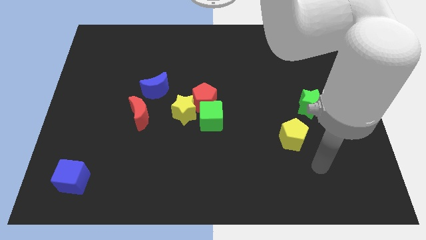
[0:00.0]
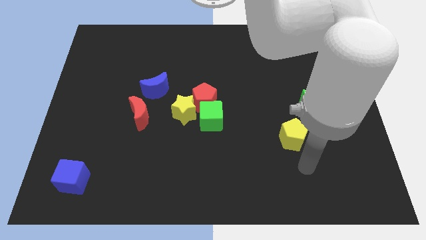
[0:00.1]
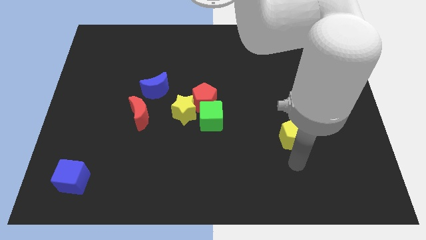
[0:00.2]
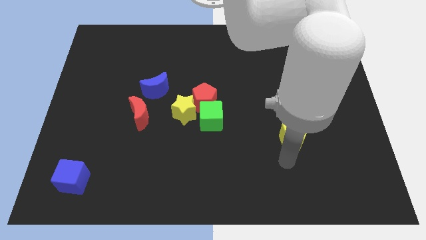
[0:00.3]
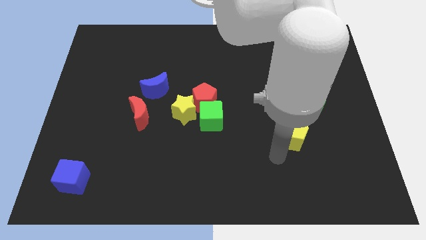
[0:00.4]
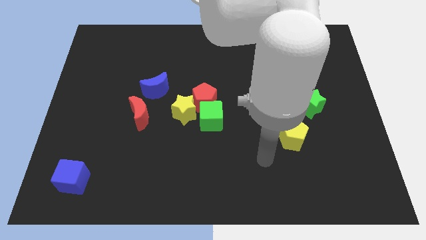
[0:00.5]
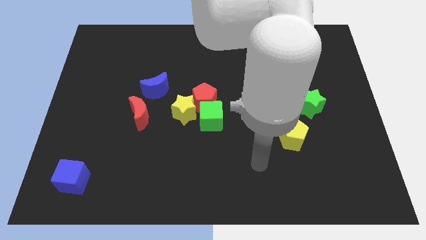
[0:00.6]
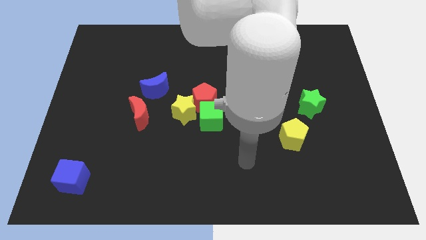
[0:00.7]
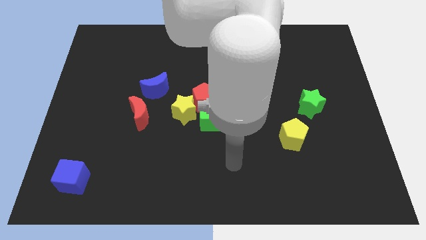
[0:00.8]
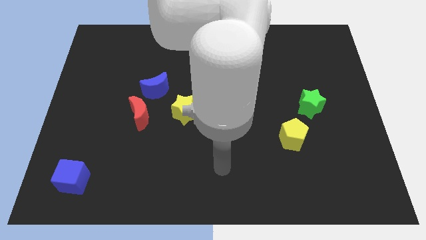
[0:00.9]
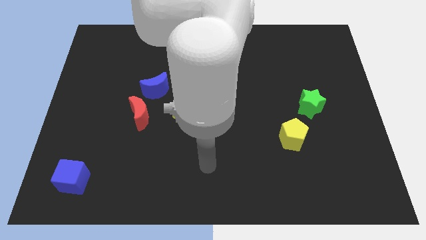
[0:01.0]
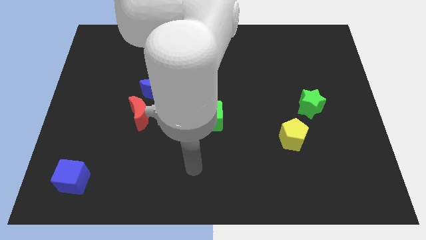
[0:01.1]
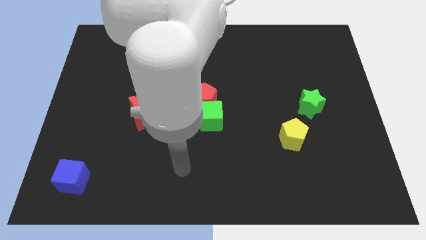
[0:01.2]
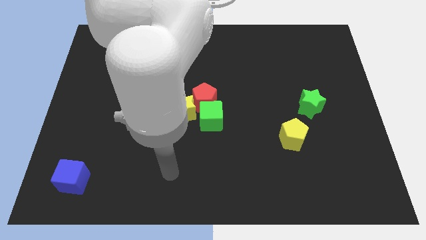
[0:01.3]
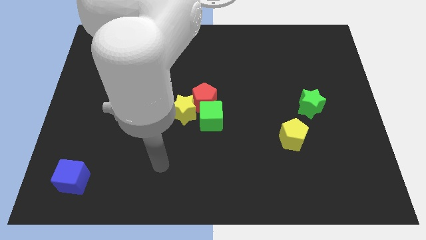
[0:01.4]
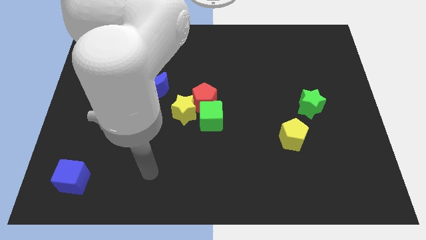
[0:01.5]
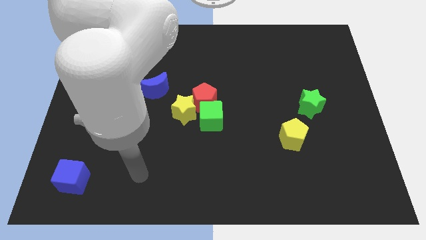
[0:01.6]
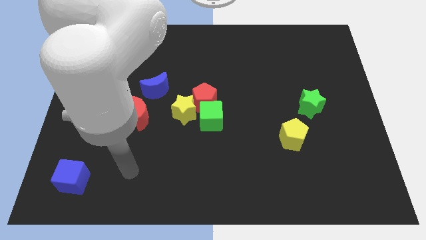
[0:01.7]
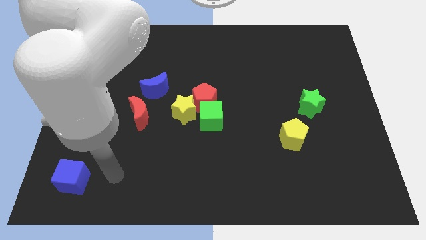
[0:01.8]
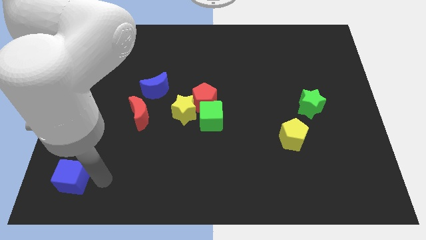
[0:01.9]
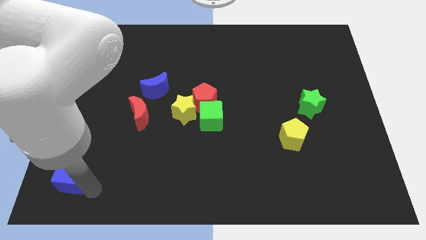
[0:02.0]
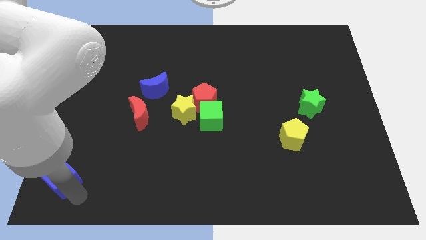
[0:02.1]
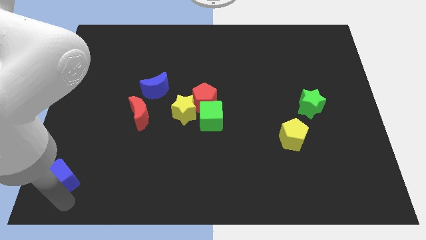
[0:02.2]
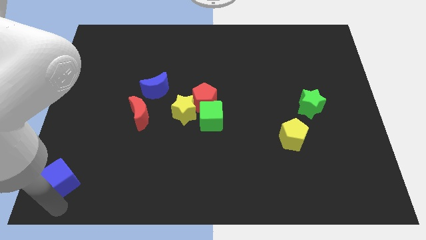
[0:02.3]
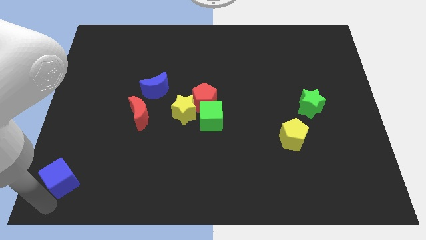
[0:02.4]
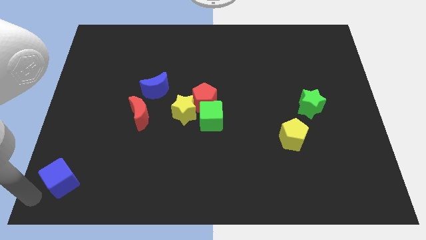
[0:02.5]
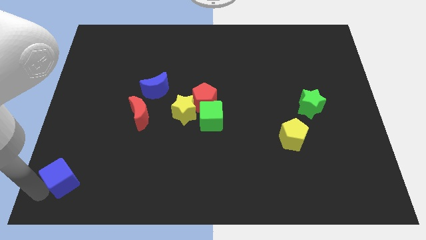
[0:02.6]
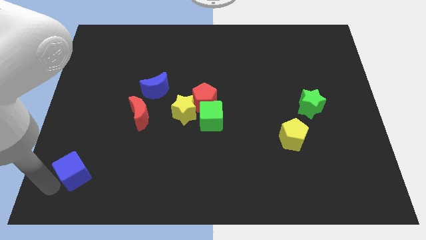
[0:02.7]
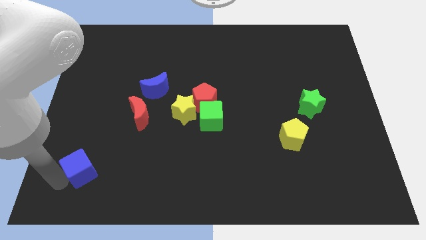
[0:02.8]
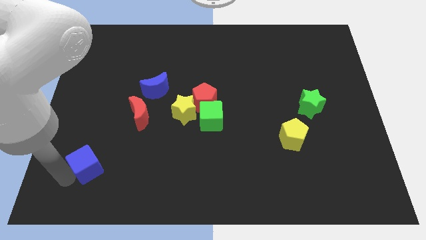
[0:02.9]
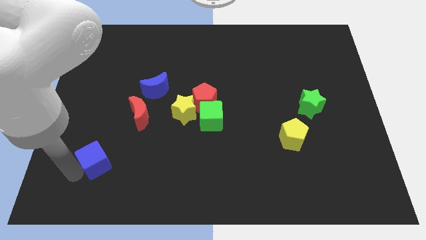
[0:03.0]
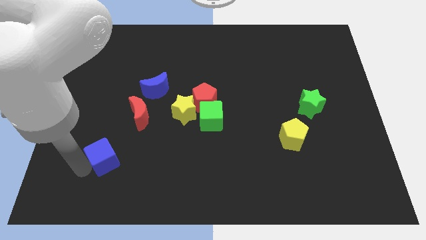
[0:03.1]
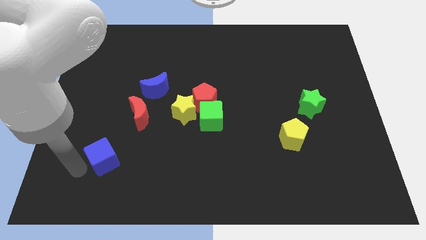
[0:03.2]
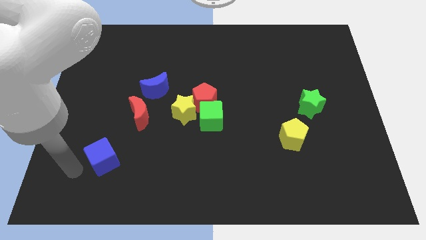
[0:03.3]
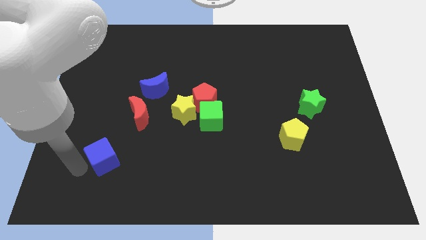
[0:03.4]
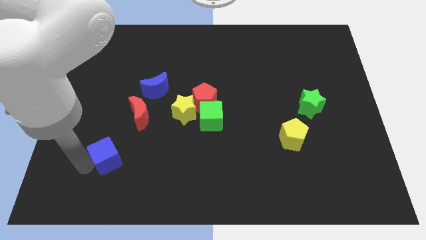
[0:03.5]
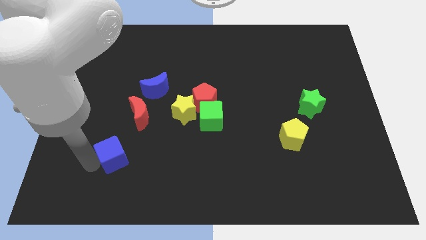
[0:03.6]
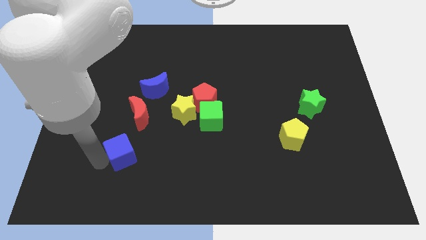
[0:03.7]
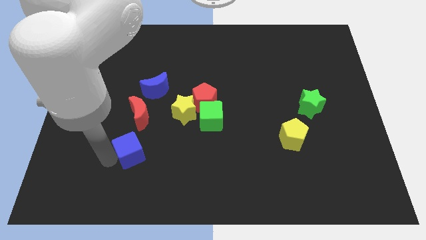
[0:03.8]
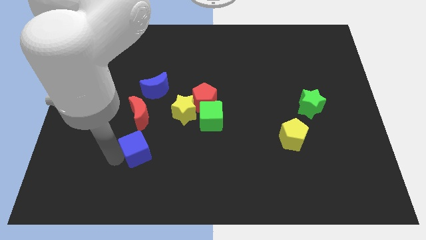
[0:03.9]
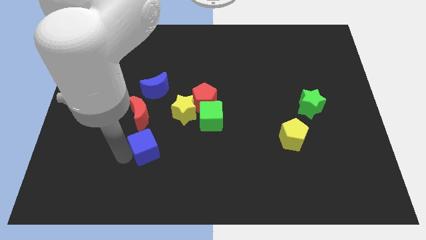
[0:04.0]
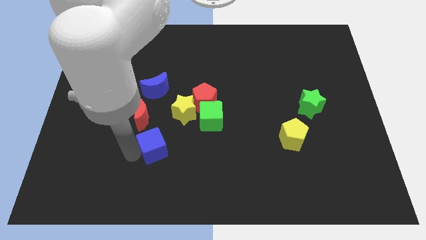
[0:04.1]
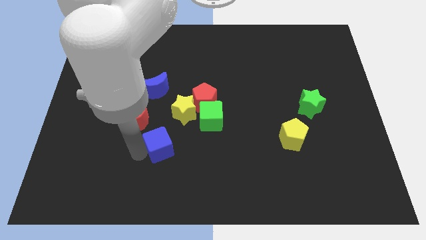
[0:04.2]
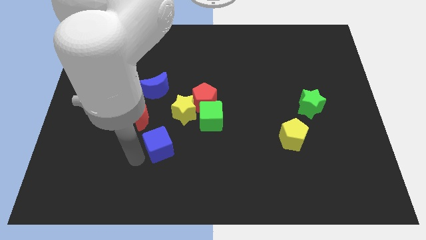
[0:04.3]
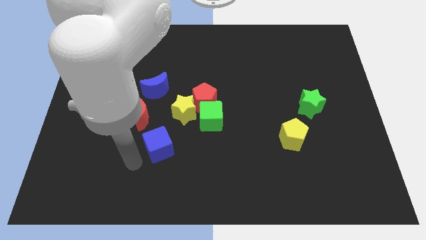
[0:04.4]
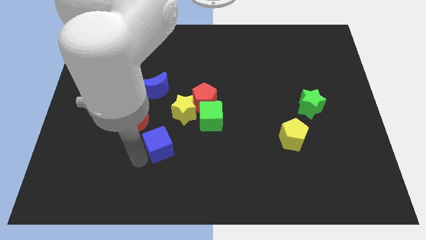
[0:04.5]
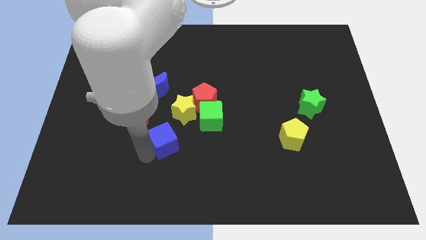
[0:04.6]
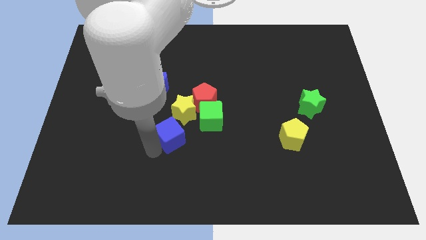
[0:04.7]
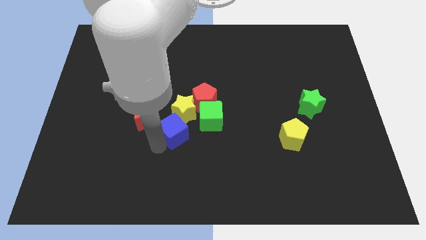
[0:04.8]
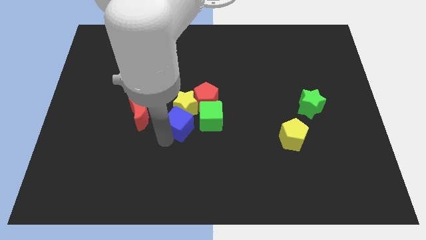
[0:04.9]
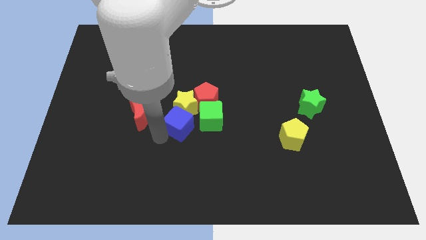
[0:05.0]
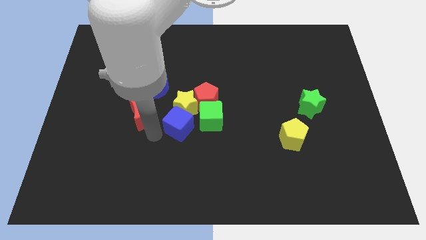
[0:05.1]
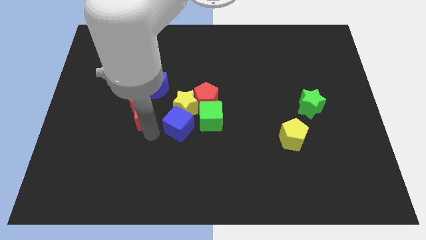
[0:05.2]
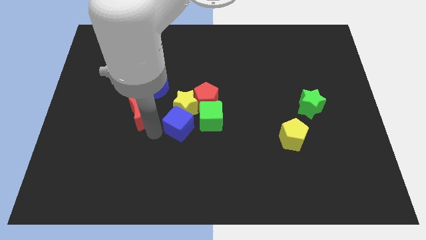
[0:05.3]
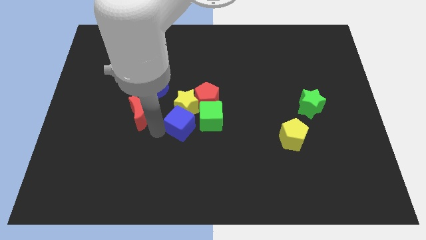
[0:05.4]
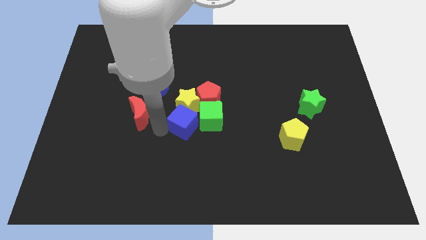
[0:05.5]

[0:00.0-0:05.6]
put the blue cube next to the green cube
